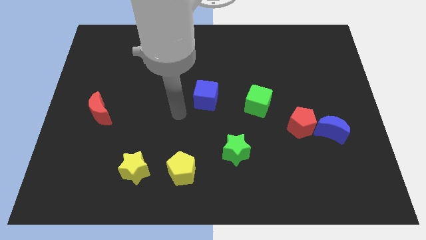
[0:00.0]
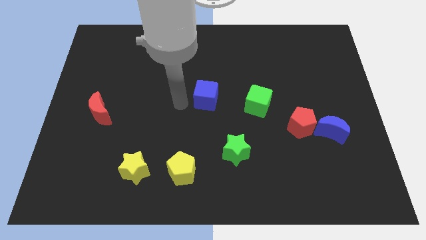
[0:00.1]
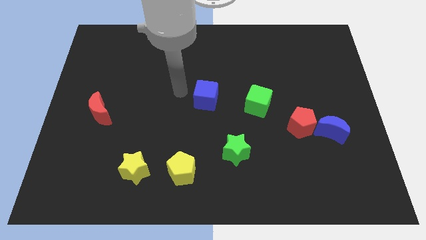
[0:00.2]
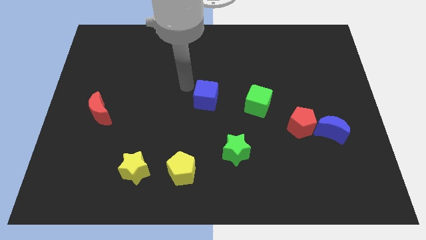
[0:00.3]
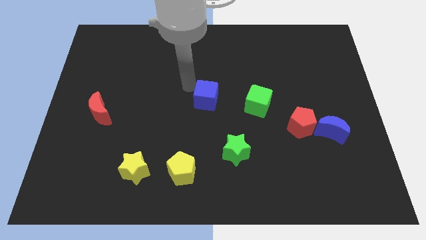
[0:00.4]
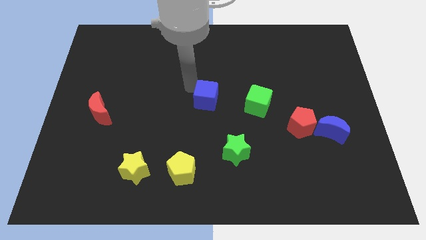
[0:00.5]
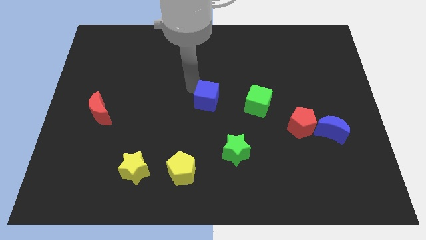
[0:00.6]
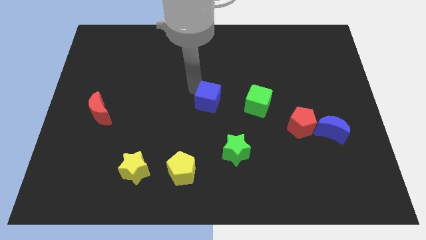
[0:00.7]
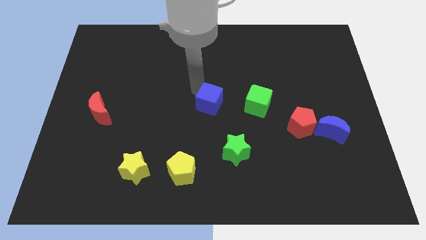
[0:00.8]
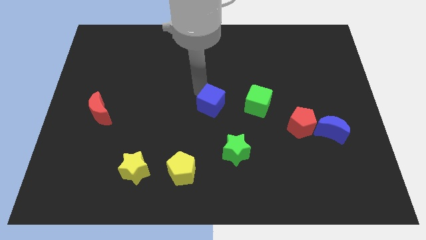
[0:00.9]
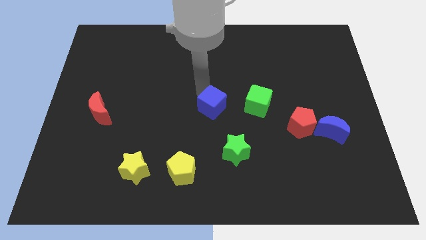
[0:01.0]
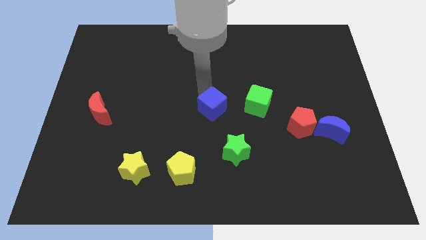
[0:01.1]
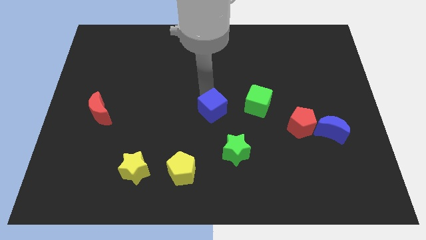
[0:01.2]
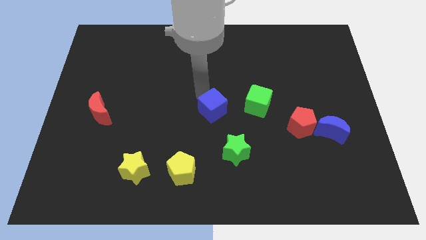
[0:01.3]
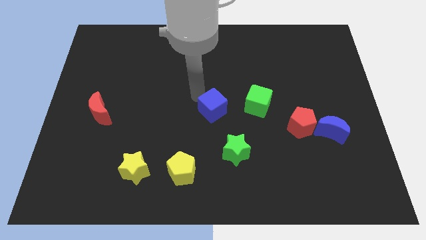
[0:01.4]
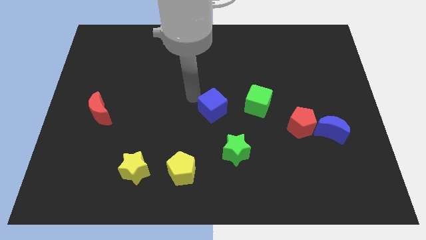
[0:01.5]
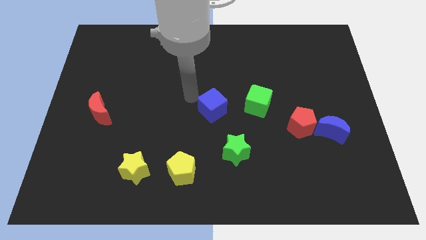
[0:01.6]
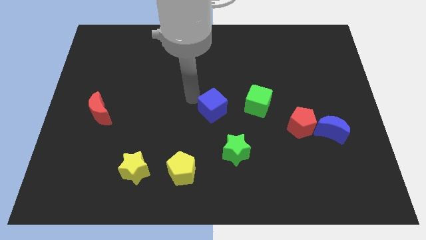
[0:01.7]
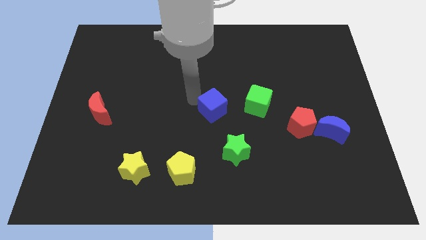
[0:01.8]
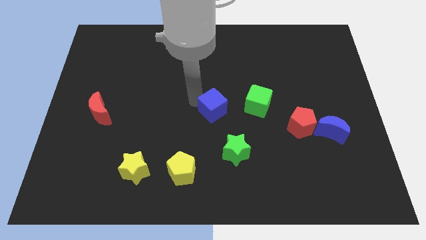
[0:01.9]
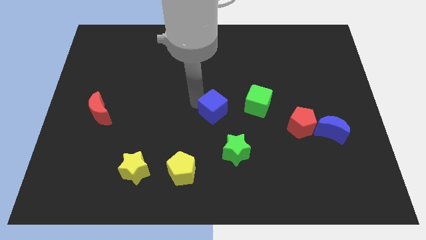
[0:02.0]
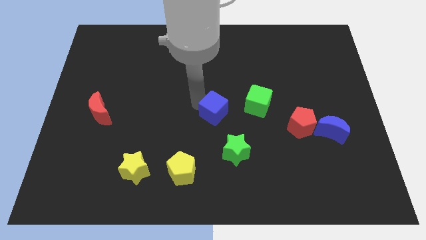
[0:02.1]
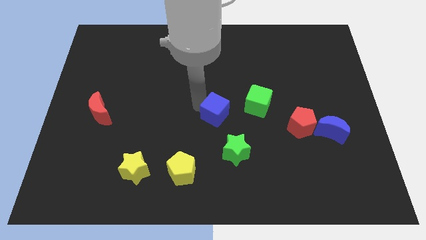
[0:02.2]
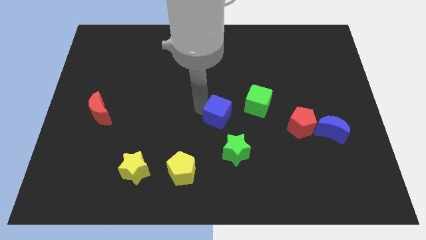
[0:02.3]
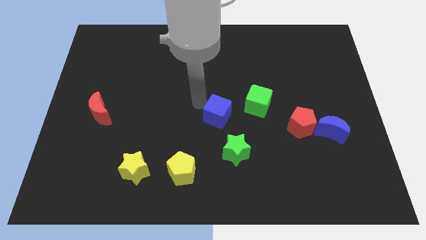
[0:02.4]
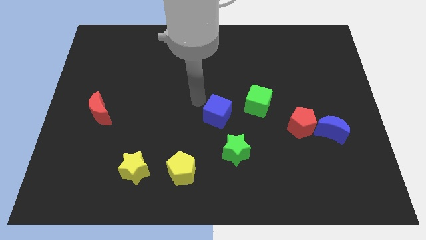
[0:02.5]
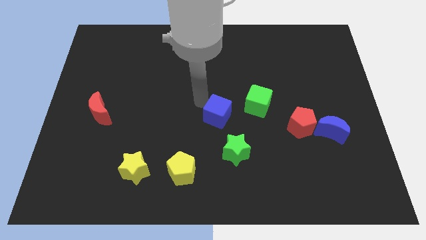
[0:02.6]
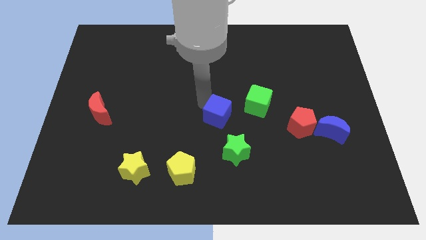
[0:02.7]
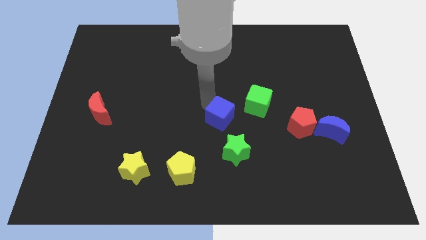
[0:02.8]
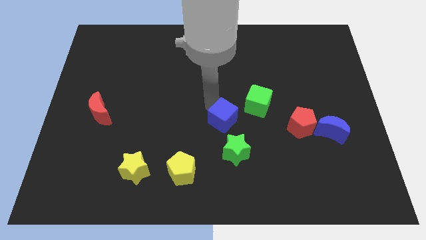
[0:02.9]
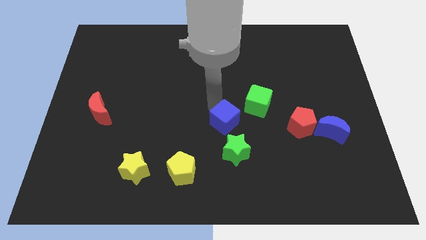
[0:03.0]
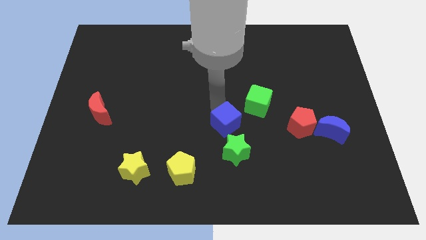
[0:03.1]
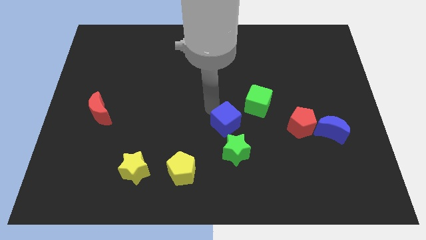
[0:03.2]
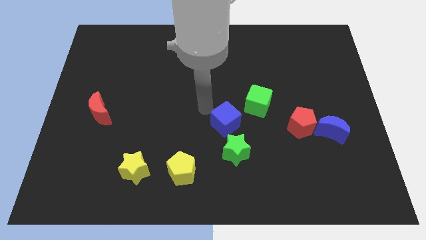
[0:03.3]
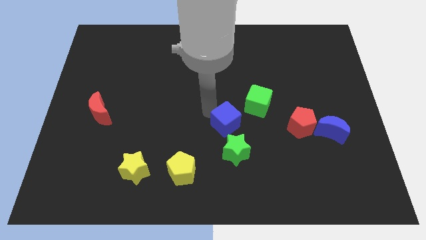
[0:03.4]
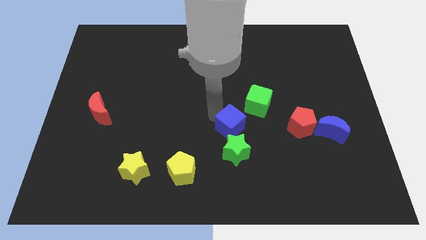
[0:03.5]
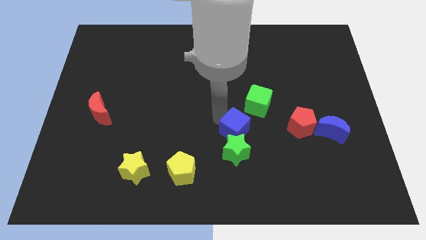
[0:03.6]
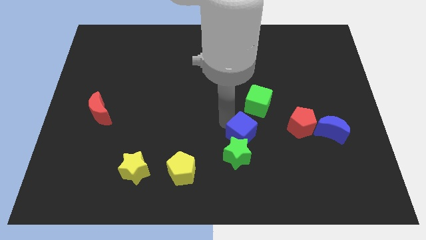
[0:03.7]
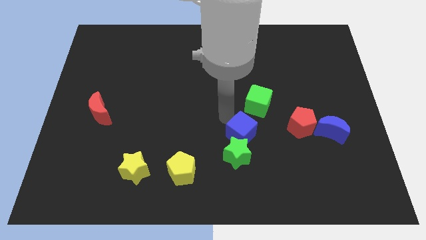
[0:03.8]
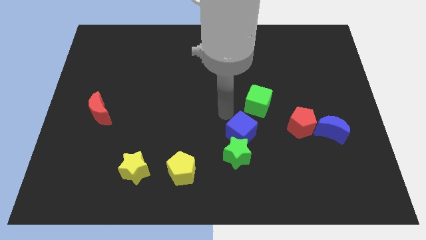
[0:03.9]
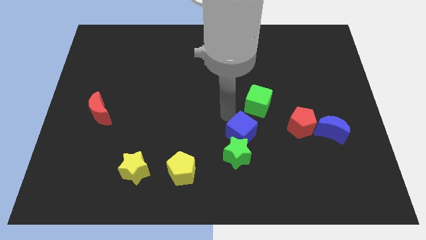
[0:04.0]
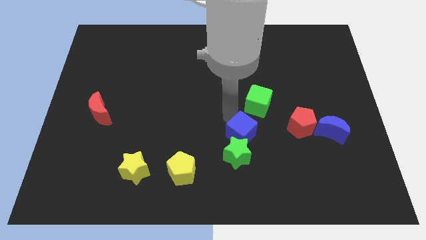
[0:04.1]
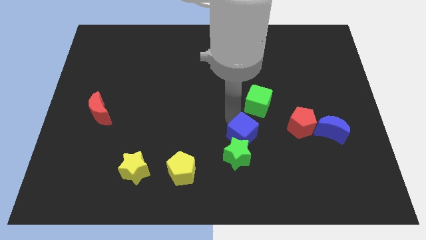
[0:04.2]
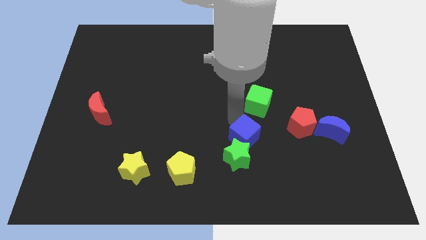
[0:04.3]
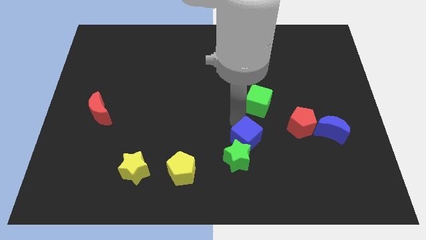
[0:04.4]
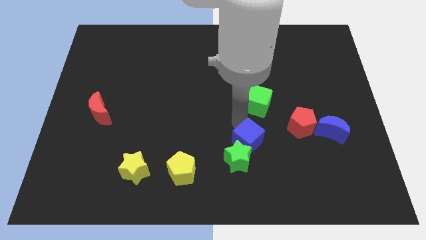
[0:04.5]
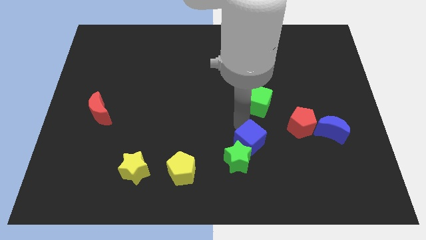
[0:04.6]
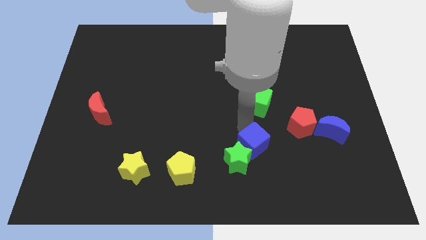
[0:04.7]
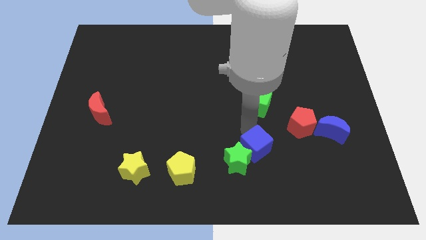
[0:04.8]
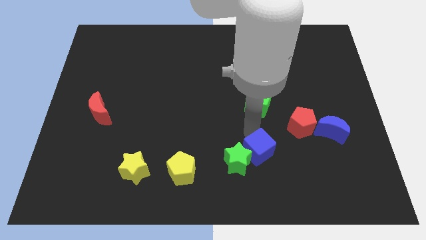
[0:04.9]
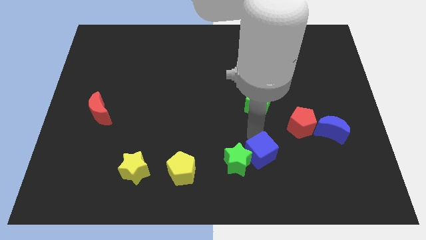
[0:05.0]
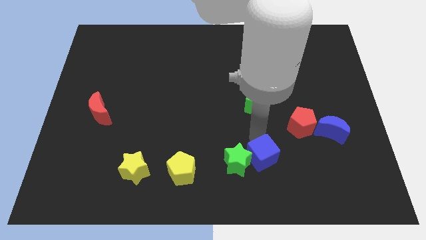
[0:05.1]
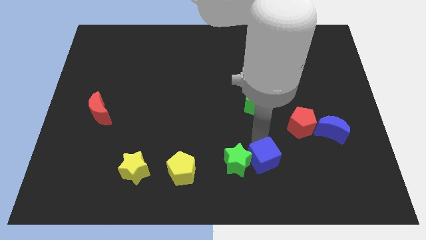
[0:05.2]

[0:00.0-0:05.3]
slide the blue cube to the bottom right of the green star

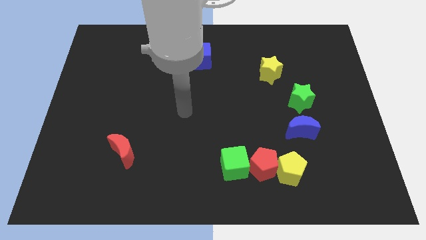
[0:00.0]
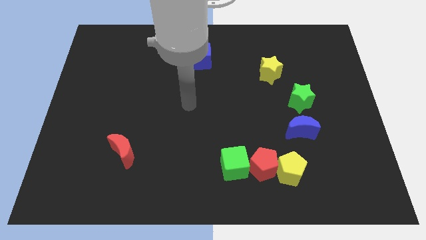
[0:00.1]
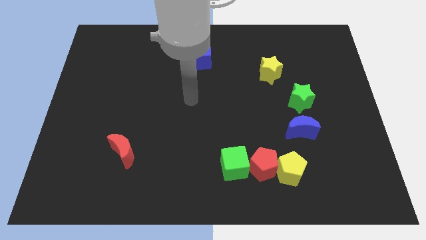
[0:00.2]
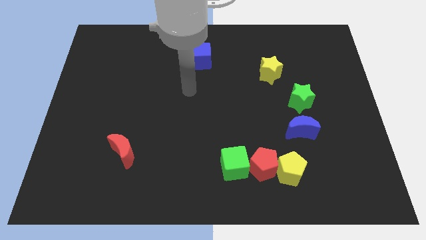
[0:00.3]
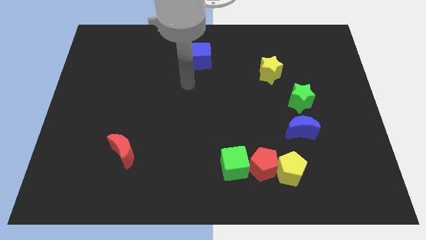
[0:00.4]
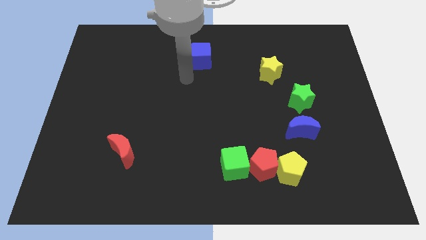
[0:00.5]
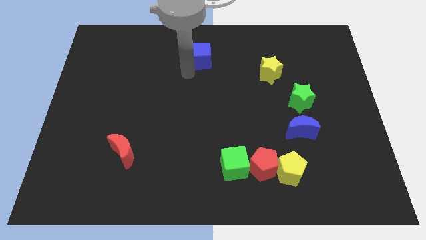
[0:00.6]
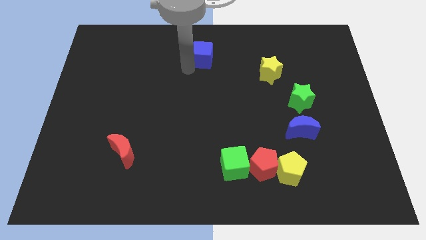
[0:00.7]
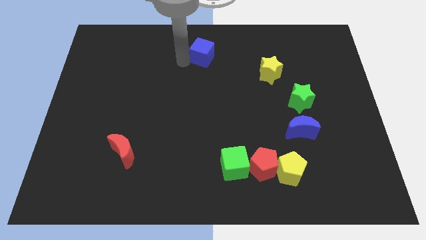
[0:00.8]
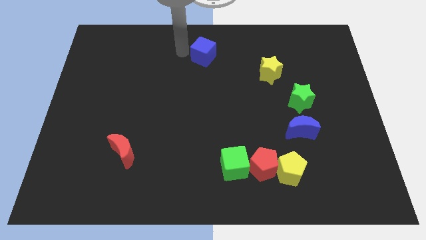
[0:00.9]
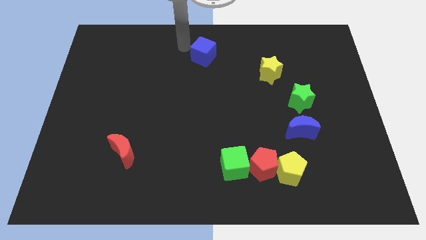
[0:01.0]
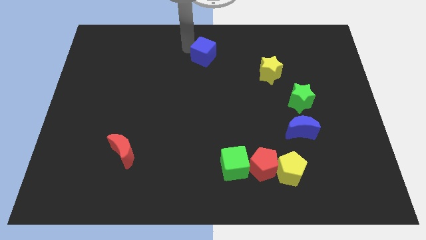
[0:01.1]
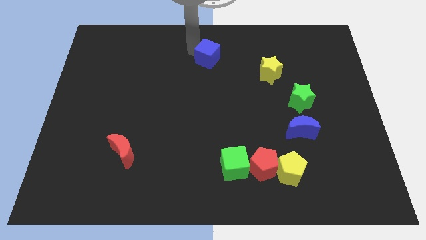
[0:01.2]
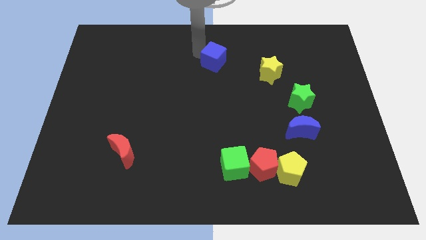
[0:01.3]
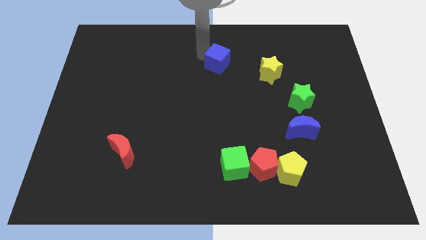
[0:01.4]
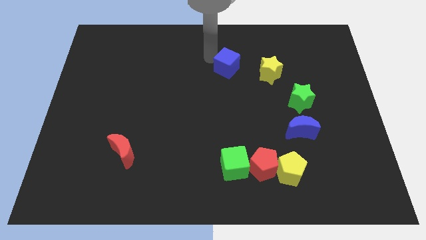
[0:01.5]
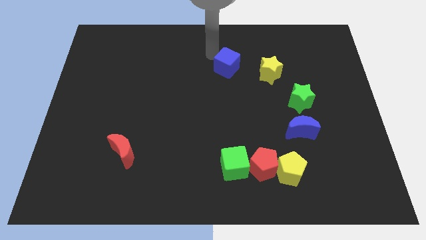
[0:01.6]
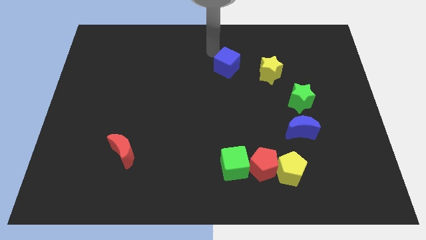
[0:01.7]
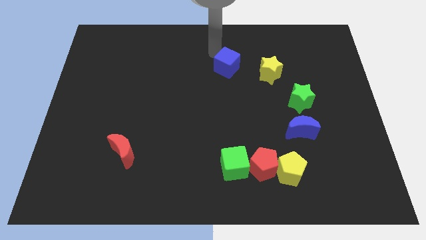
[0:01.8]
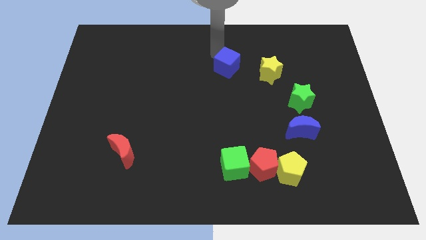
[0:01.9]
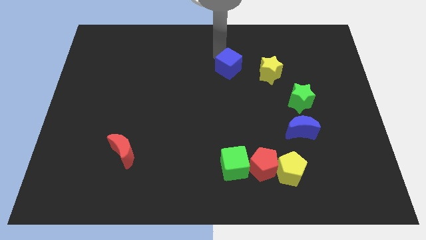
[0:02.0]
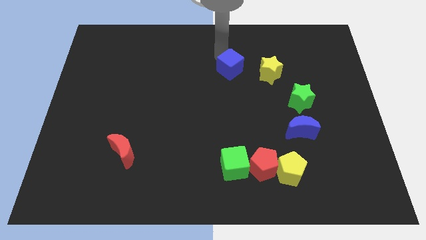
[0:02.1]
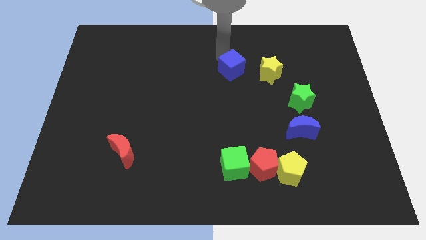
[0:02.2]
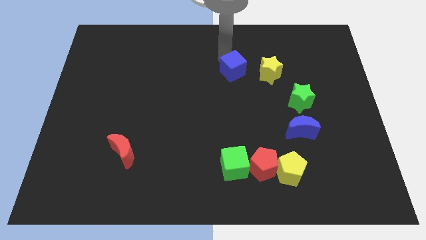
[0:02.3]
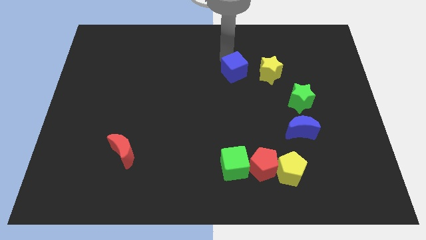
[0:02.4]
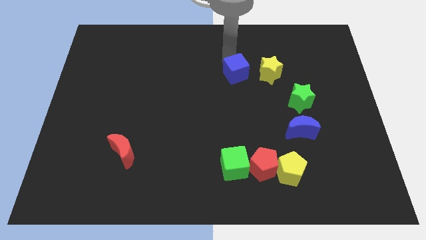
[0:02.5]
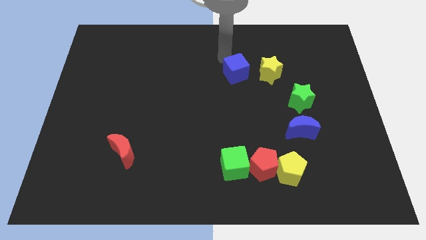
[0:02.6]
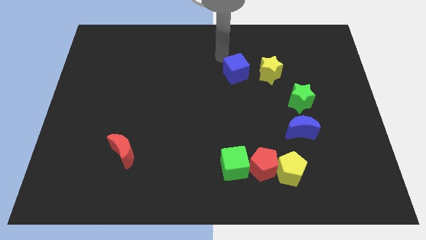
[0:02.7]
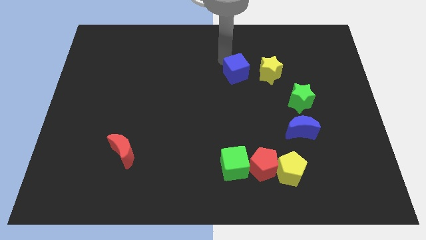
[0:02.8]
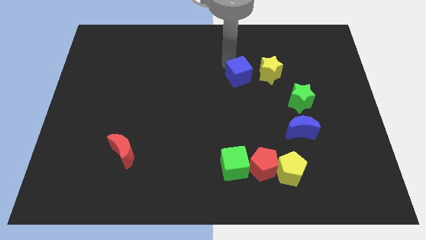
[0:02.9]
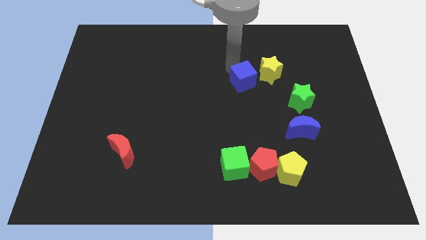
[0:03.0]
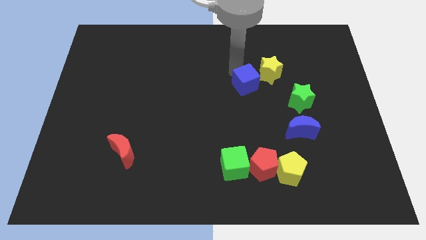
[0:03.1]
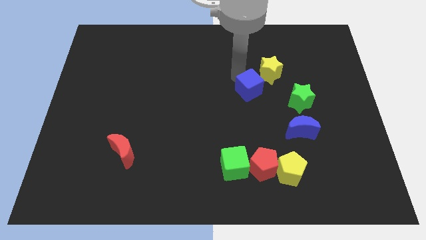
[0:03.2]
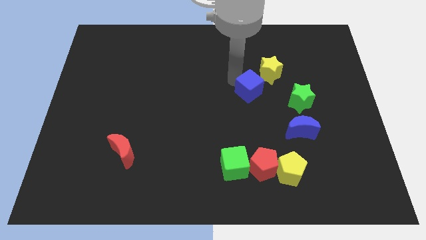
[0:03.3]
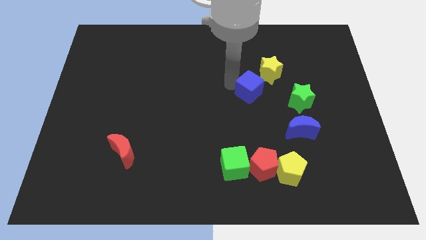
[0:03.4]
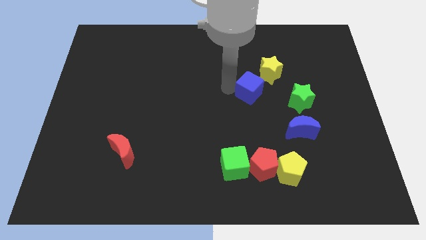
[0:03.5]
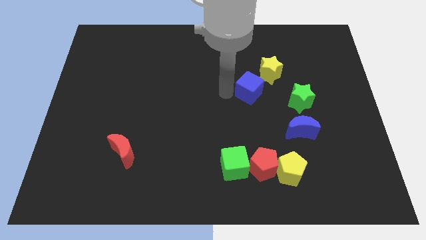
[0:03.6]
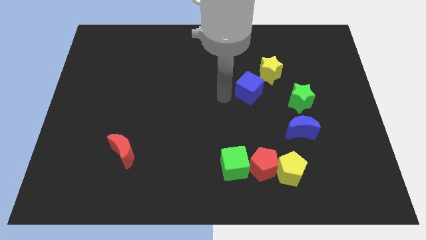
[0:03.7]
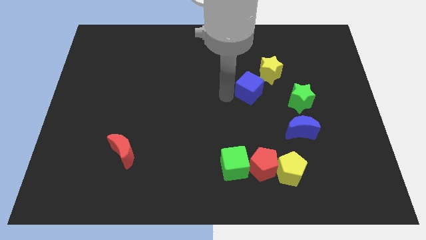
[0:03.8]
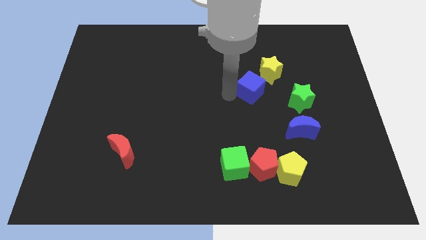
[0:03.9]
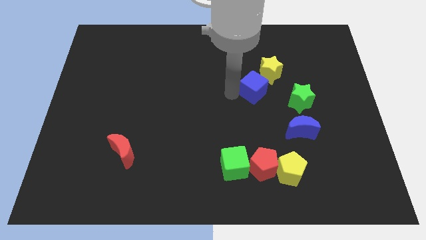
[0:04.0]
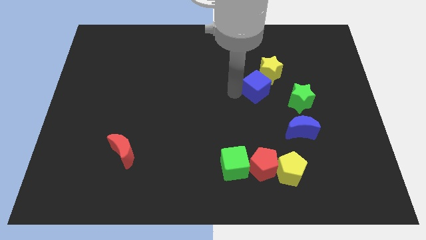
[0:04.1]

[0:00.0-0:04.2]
push the blue cube to the top left of the green star
